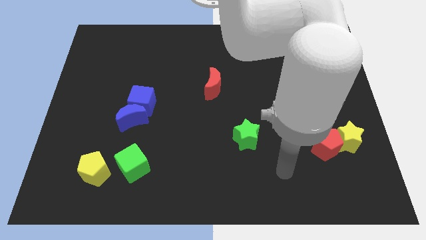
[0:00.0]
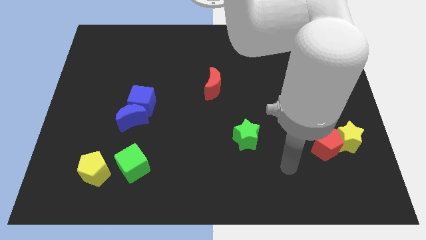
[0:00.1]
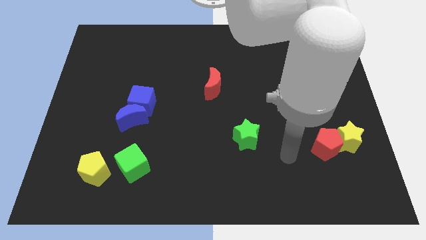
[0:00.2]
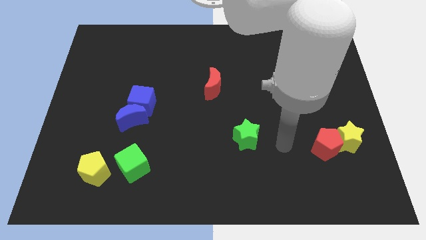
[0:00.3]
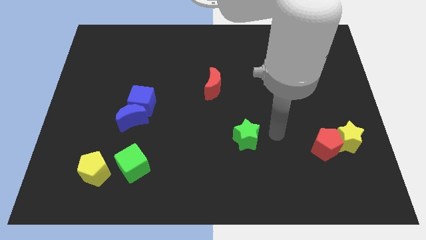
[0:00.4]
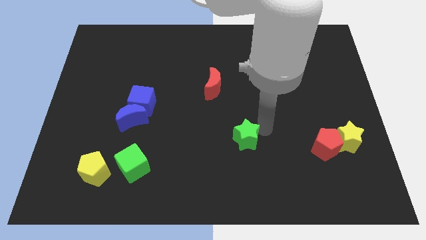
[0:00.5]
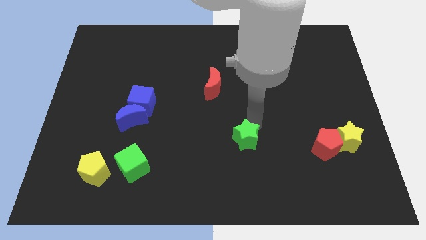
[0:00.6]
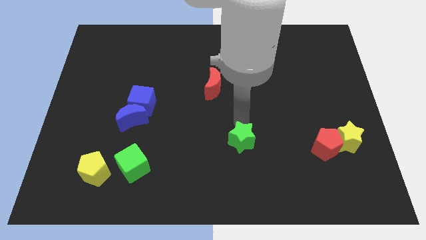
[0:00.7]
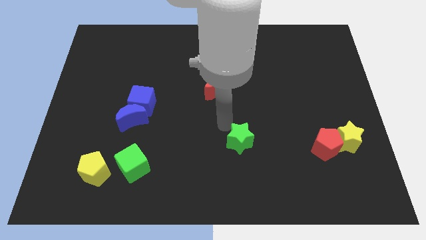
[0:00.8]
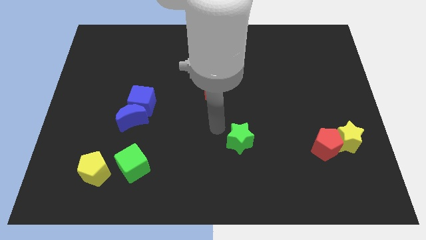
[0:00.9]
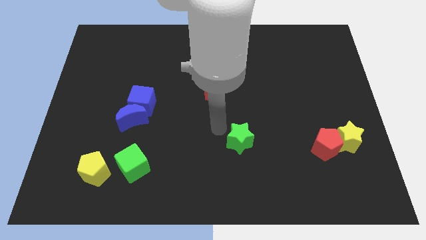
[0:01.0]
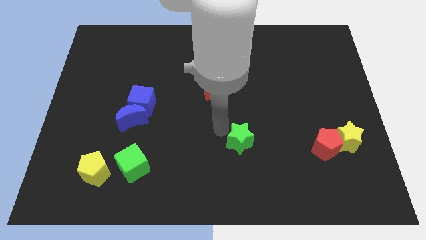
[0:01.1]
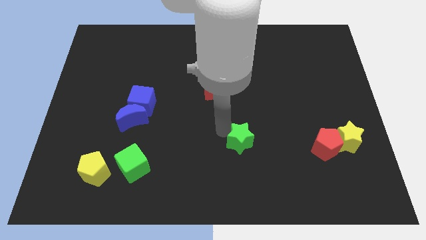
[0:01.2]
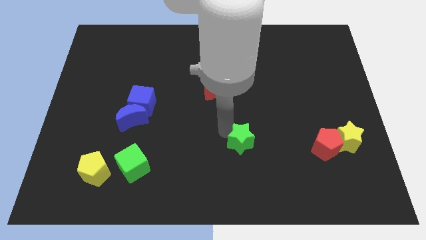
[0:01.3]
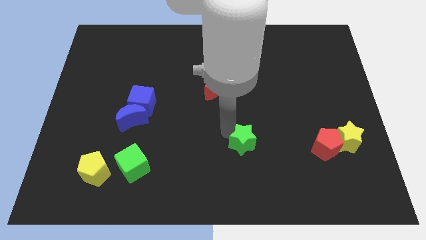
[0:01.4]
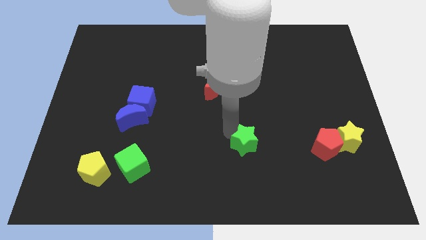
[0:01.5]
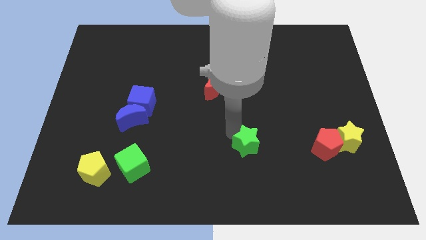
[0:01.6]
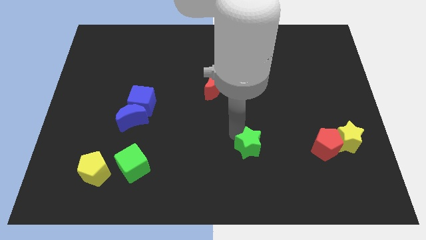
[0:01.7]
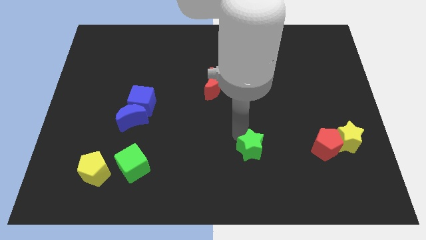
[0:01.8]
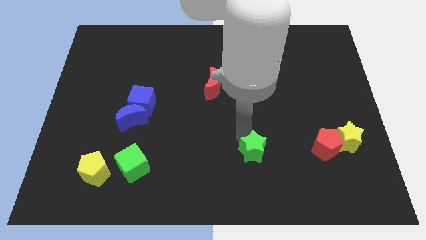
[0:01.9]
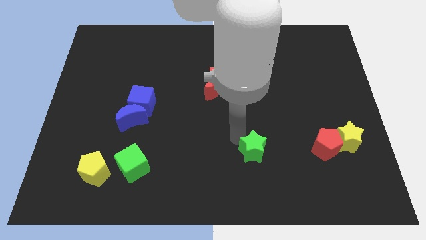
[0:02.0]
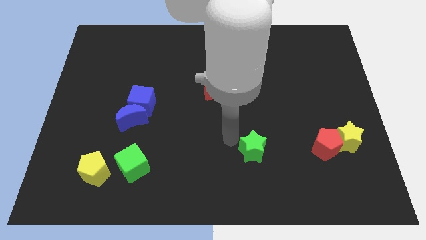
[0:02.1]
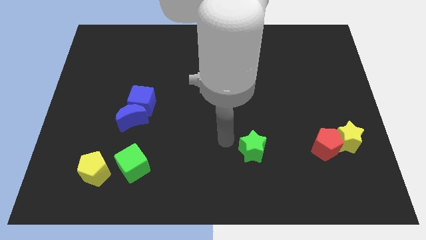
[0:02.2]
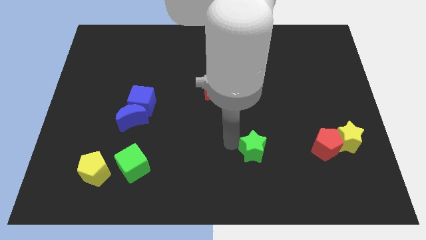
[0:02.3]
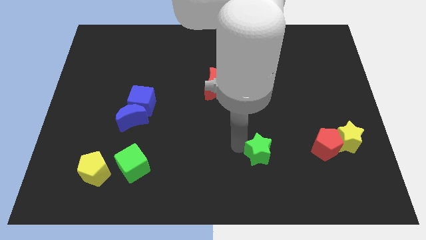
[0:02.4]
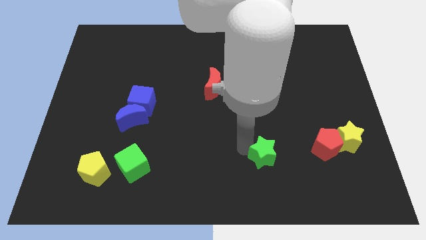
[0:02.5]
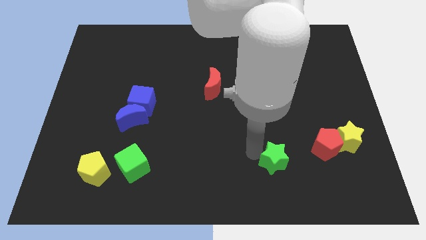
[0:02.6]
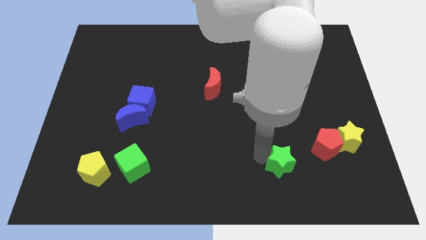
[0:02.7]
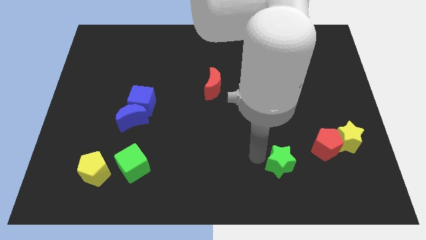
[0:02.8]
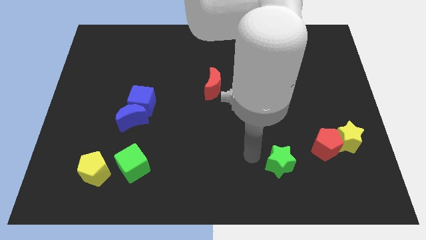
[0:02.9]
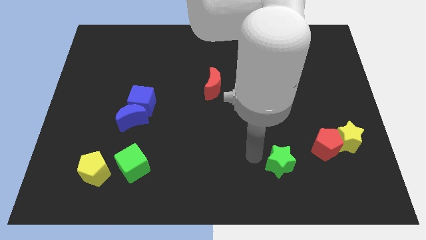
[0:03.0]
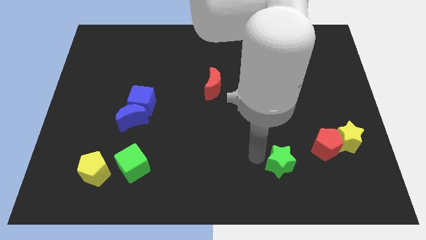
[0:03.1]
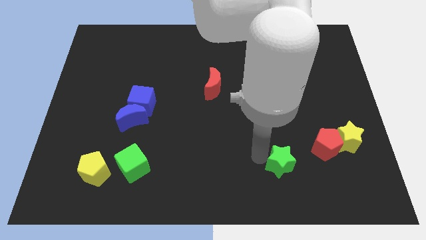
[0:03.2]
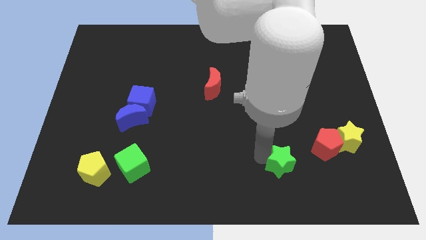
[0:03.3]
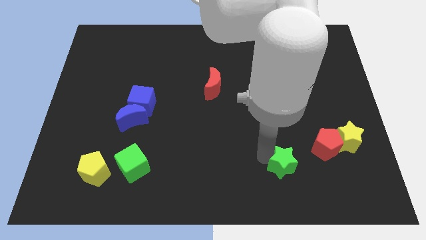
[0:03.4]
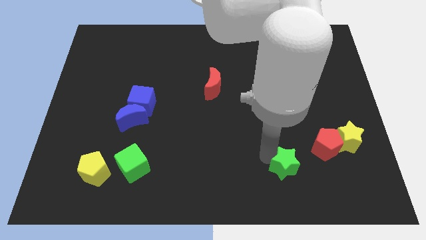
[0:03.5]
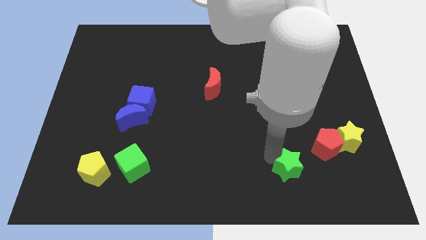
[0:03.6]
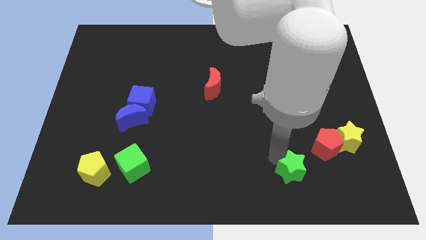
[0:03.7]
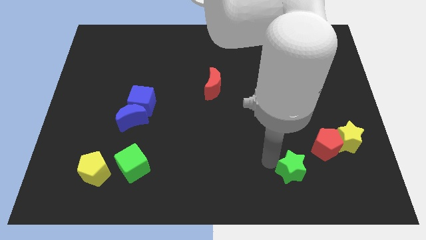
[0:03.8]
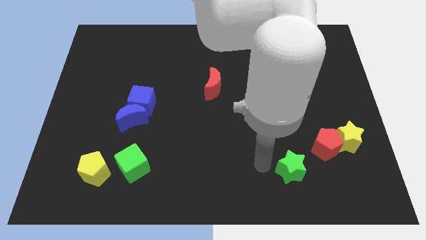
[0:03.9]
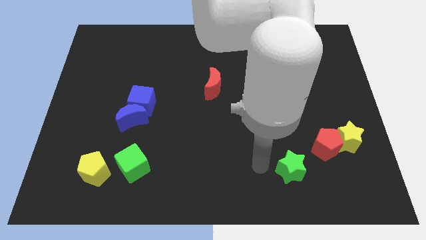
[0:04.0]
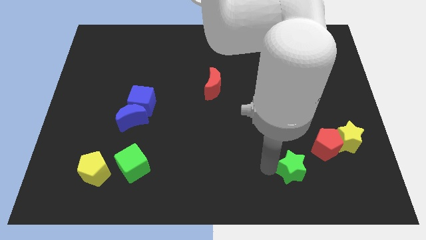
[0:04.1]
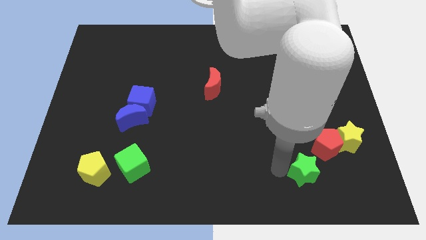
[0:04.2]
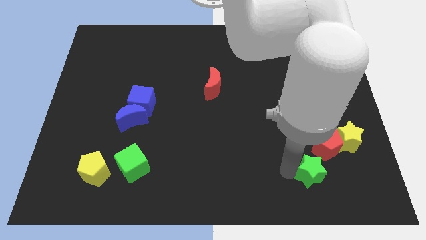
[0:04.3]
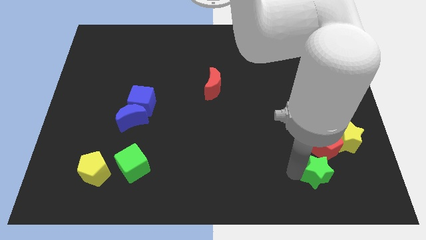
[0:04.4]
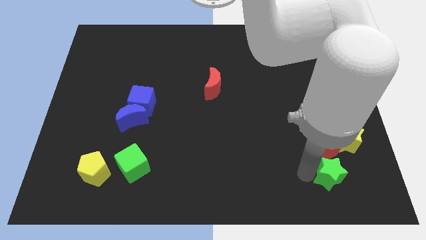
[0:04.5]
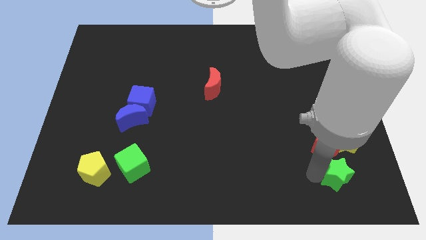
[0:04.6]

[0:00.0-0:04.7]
slide the green star to the bottom of the yellow star

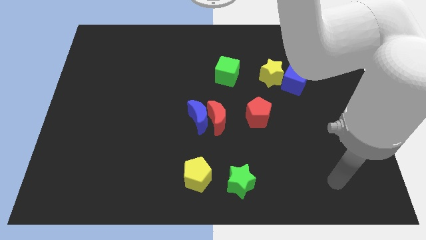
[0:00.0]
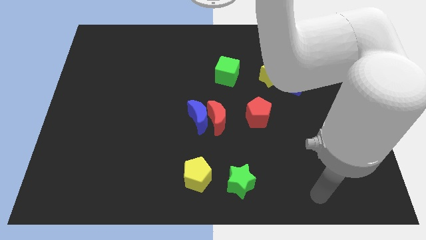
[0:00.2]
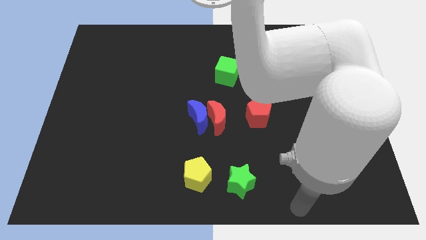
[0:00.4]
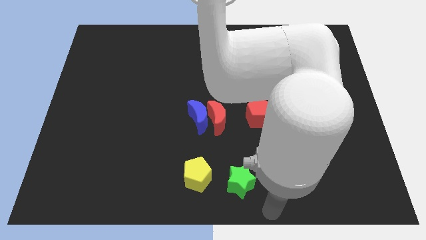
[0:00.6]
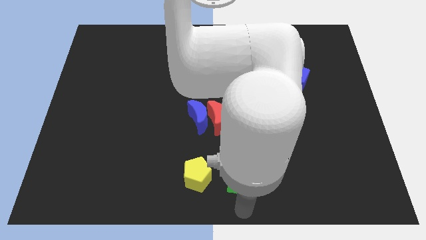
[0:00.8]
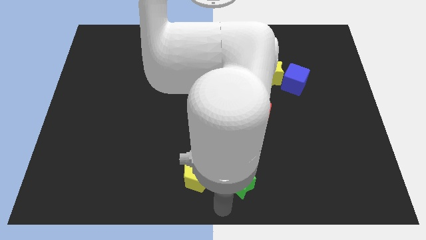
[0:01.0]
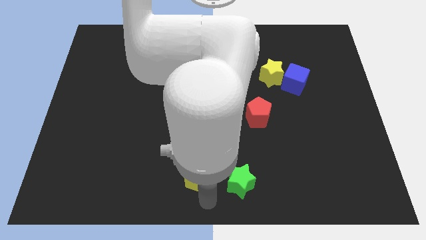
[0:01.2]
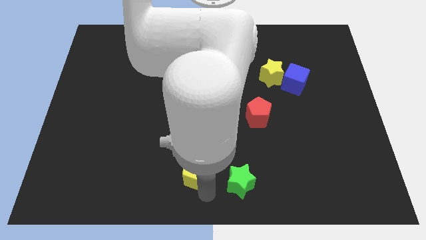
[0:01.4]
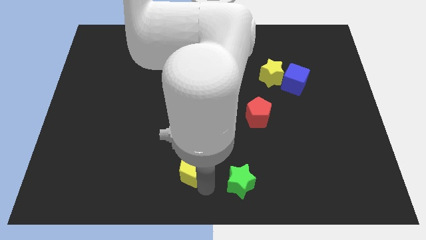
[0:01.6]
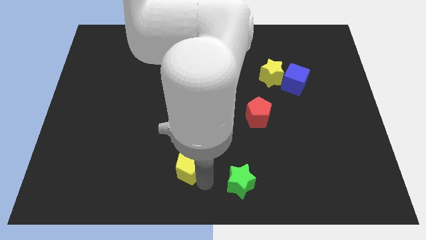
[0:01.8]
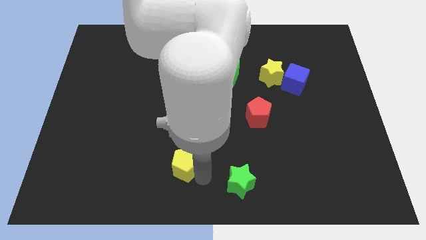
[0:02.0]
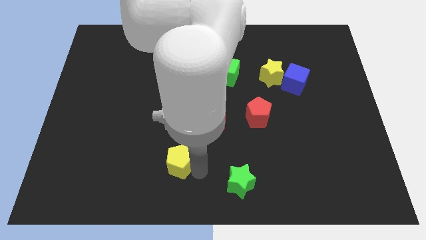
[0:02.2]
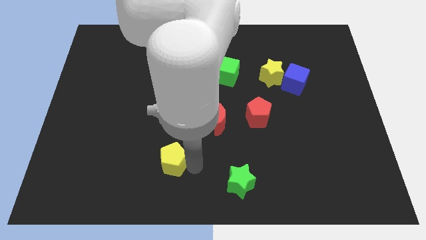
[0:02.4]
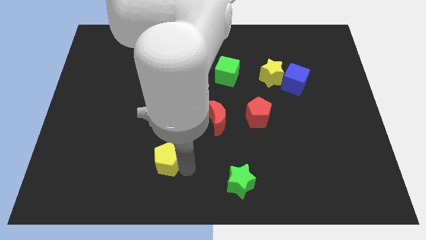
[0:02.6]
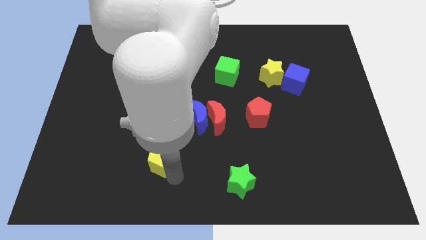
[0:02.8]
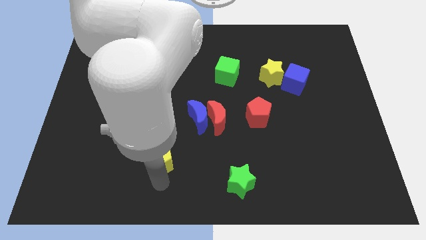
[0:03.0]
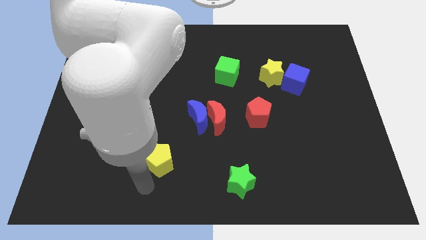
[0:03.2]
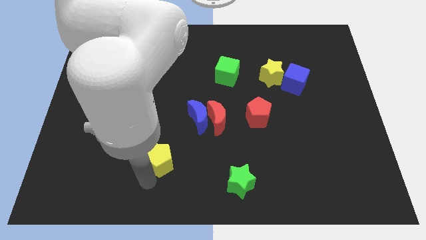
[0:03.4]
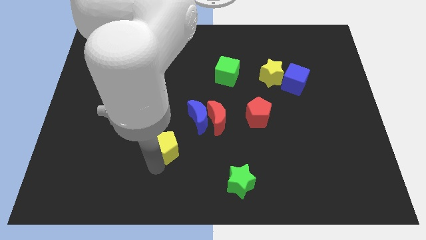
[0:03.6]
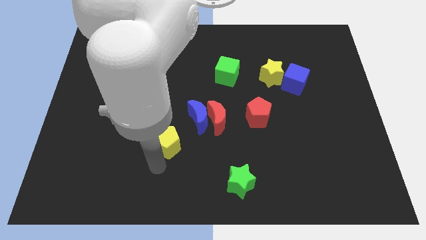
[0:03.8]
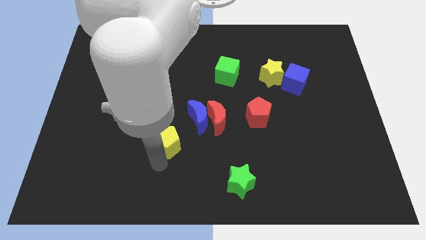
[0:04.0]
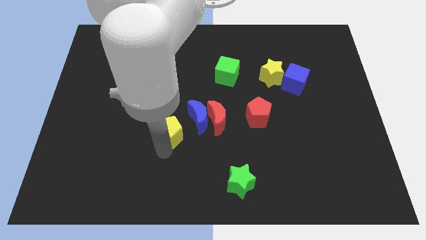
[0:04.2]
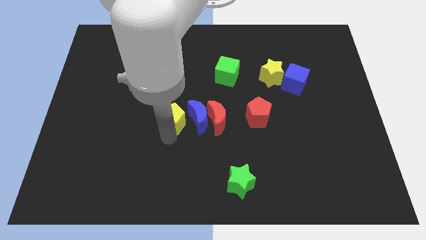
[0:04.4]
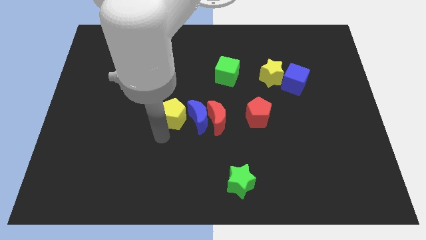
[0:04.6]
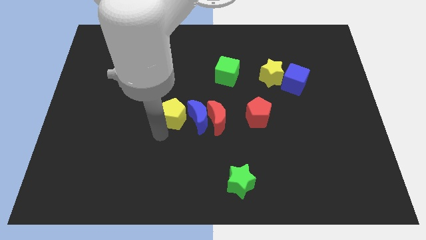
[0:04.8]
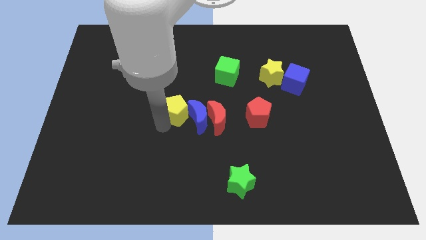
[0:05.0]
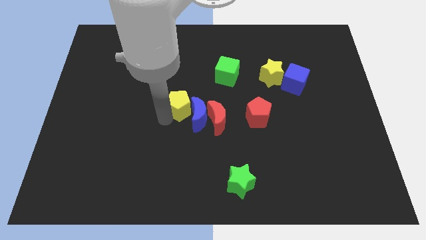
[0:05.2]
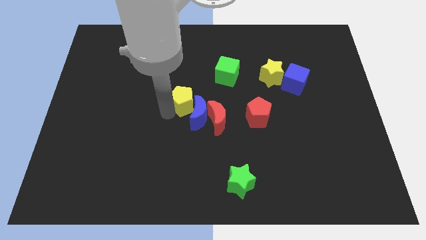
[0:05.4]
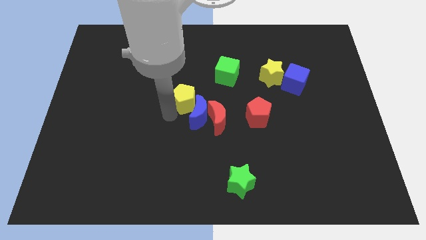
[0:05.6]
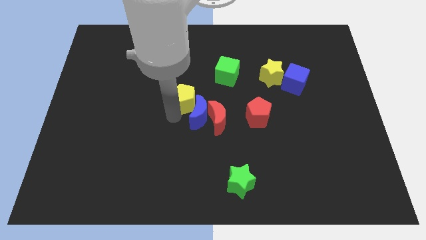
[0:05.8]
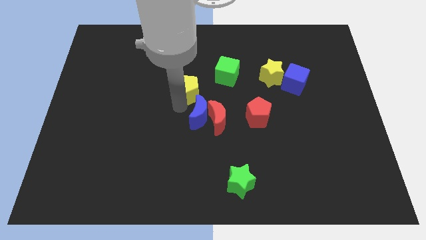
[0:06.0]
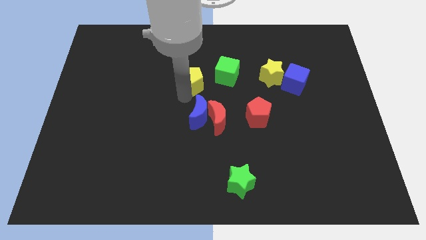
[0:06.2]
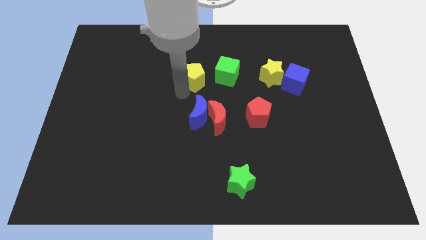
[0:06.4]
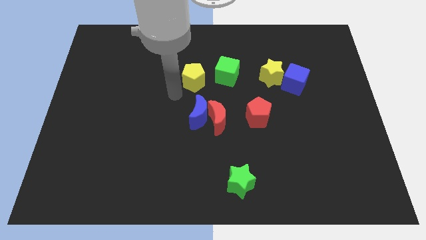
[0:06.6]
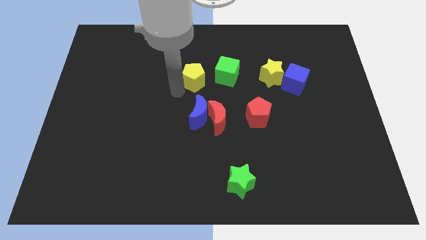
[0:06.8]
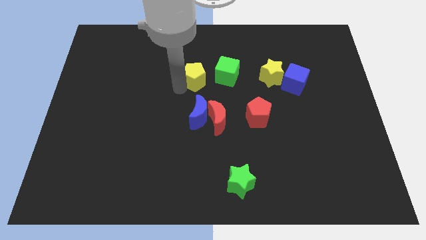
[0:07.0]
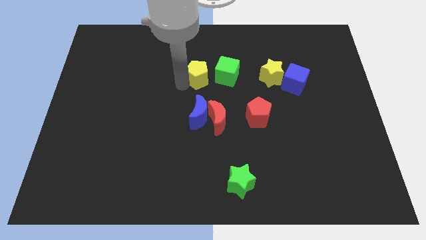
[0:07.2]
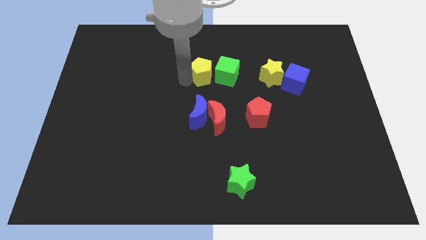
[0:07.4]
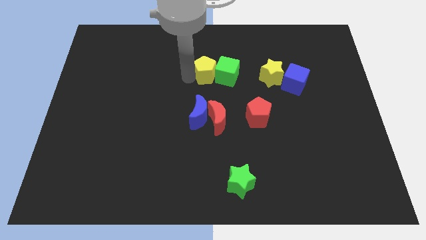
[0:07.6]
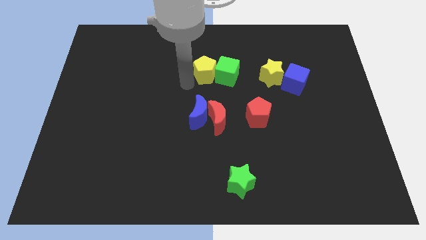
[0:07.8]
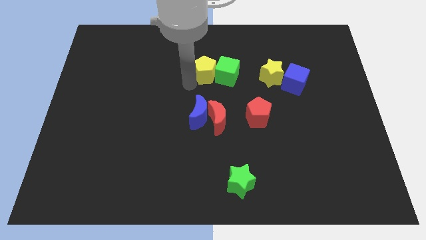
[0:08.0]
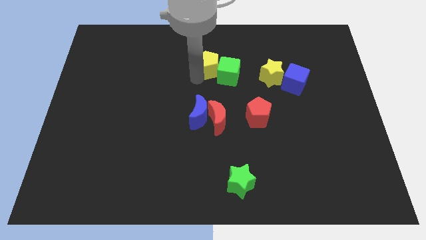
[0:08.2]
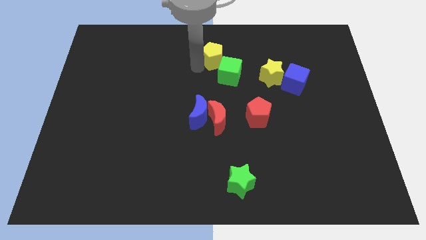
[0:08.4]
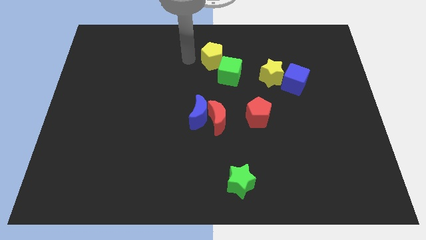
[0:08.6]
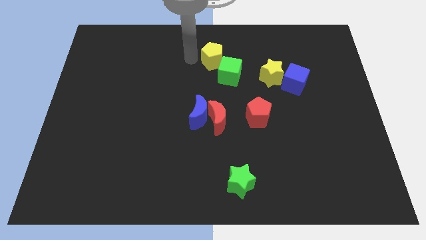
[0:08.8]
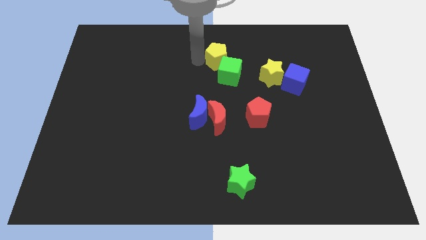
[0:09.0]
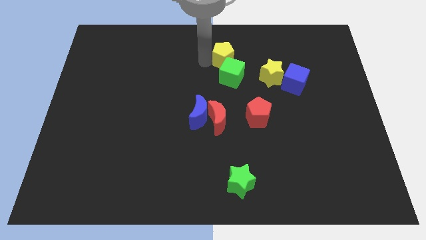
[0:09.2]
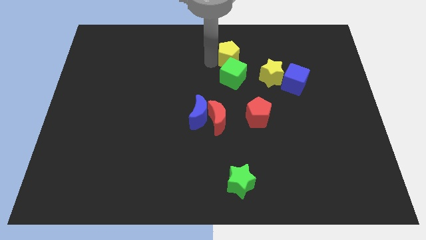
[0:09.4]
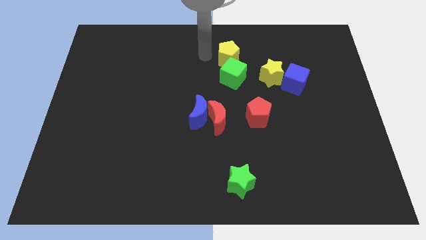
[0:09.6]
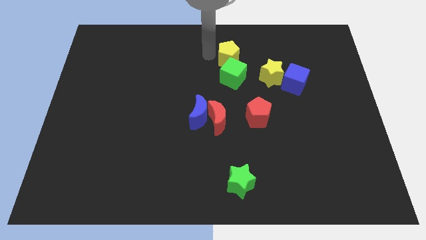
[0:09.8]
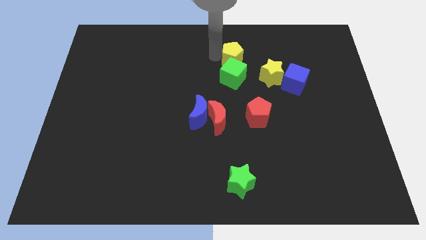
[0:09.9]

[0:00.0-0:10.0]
move the yellow pentagon to the top right side of the green cube
